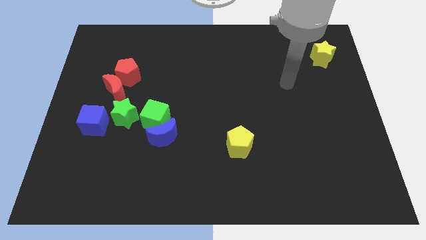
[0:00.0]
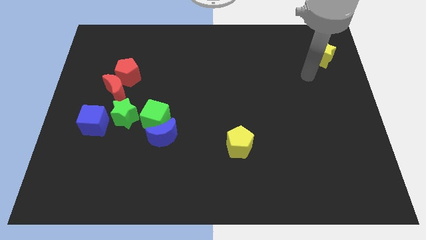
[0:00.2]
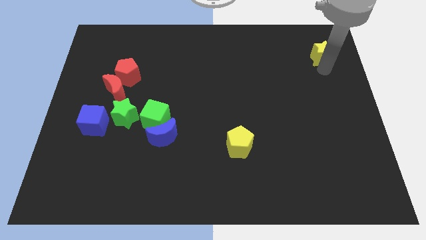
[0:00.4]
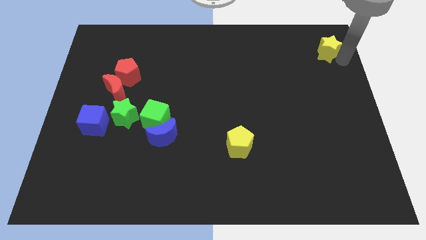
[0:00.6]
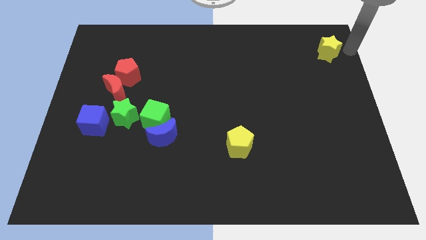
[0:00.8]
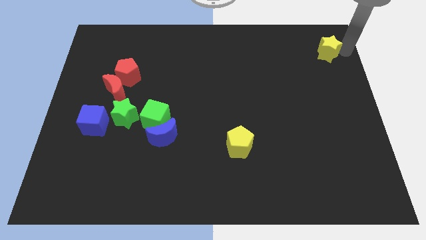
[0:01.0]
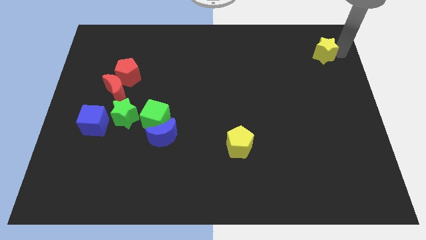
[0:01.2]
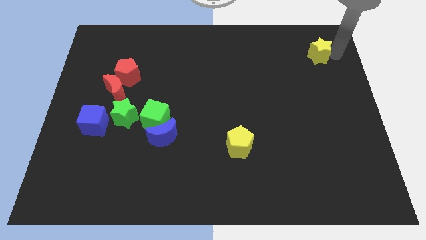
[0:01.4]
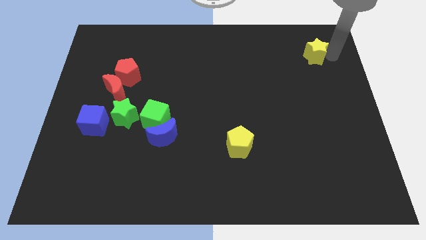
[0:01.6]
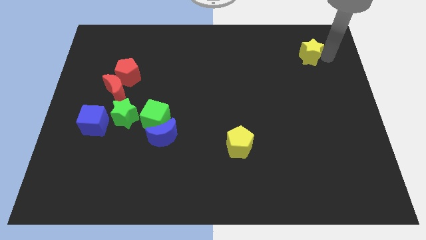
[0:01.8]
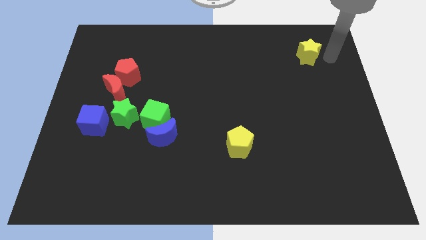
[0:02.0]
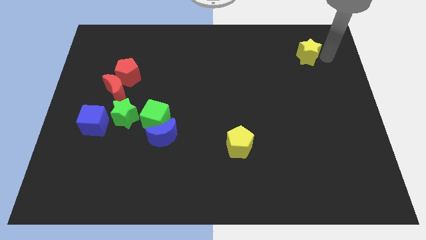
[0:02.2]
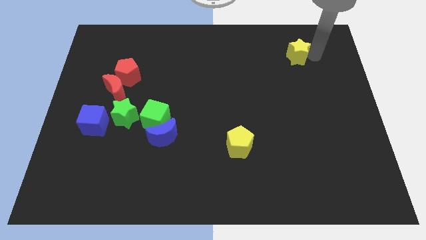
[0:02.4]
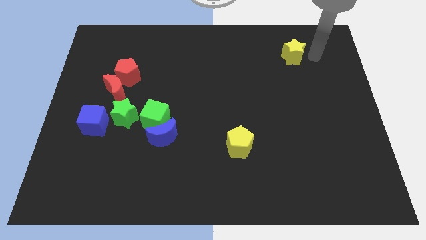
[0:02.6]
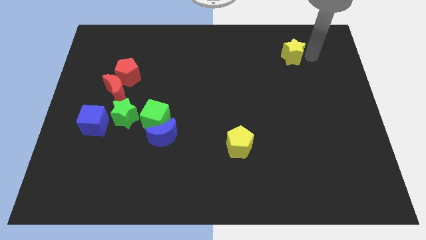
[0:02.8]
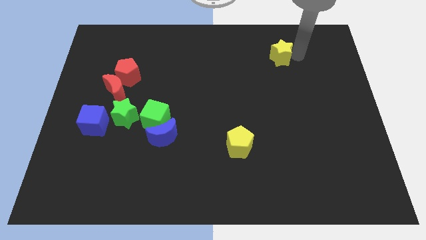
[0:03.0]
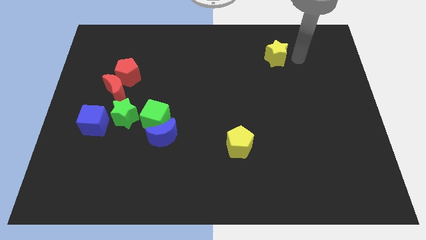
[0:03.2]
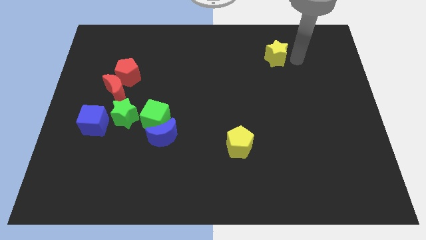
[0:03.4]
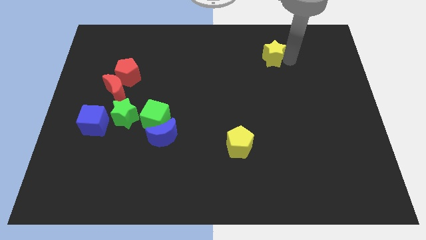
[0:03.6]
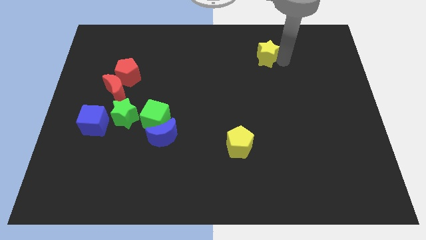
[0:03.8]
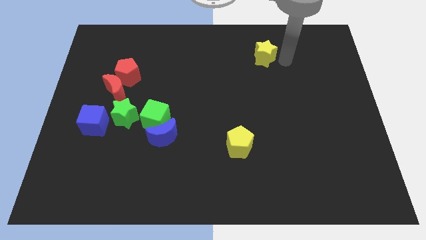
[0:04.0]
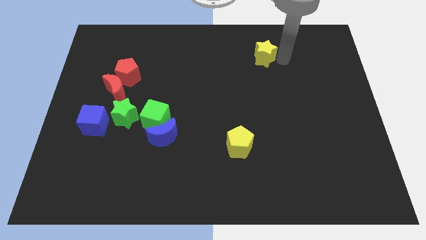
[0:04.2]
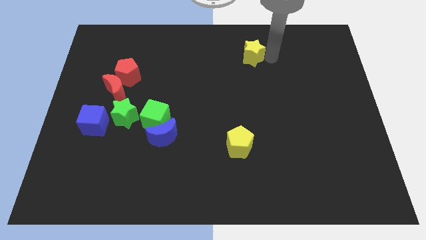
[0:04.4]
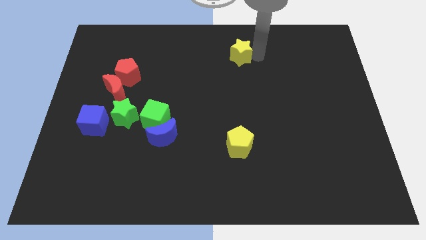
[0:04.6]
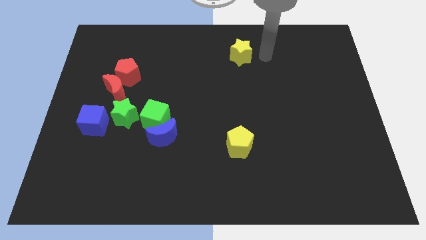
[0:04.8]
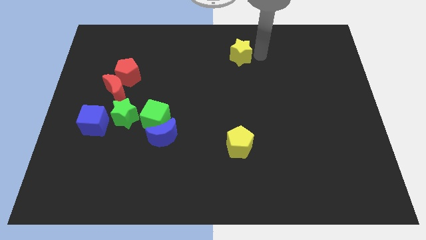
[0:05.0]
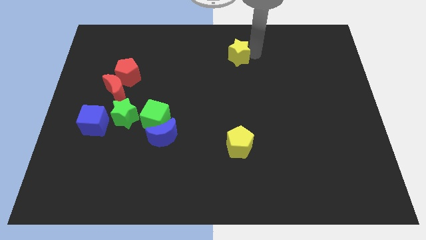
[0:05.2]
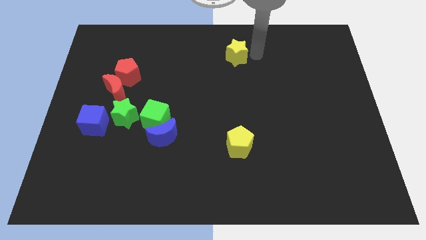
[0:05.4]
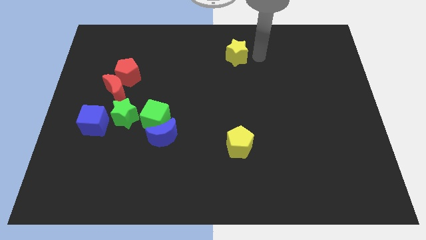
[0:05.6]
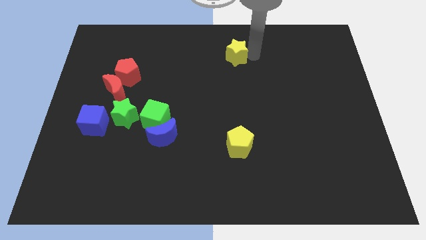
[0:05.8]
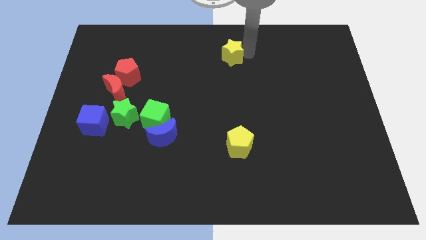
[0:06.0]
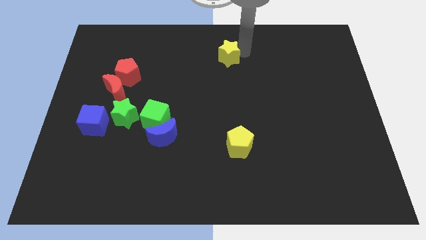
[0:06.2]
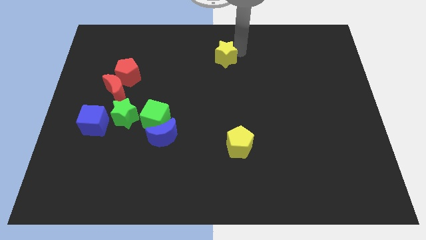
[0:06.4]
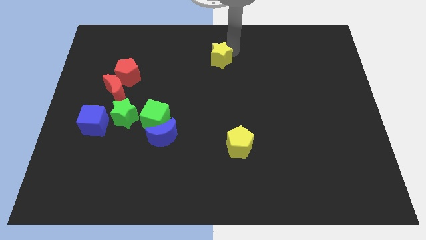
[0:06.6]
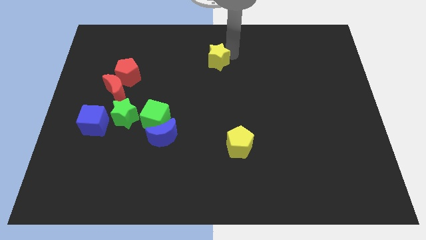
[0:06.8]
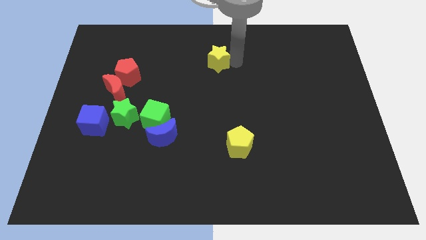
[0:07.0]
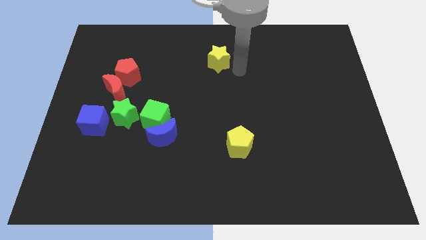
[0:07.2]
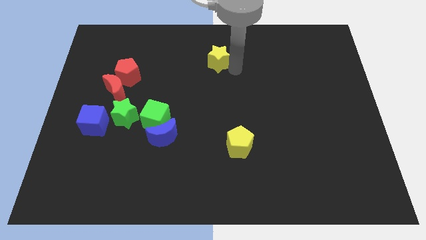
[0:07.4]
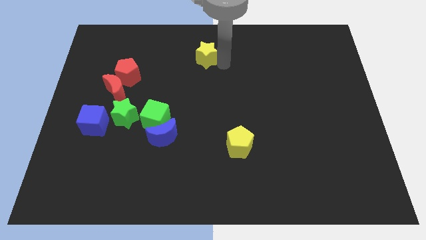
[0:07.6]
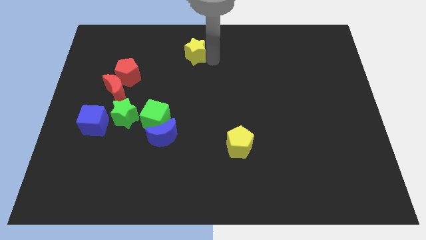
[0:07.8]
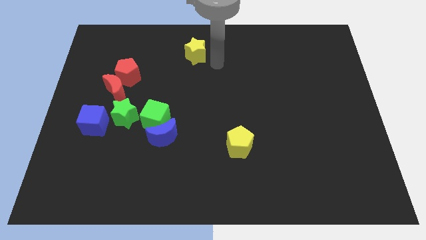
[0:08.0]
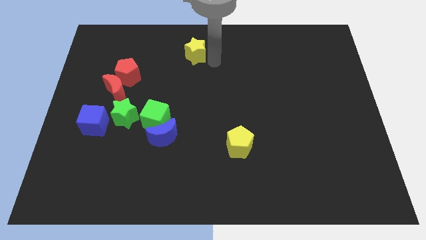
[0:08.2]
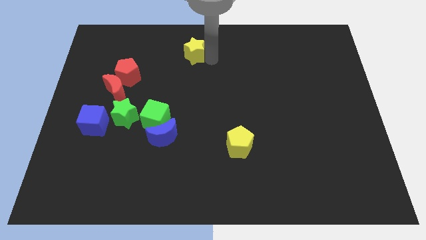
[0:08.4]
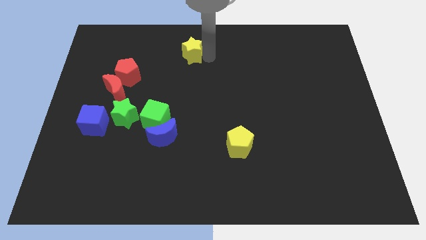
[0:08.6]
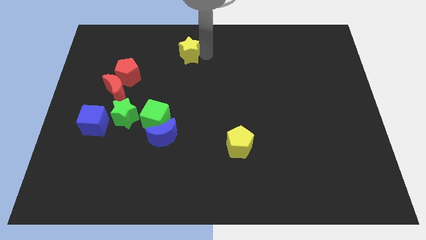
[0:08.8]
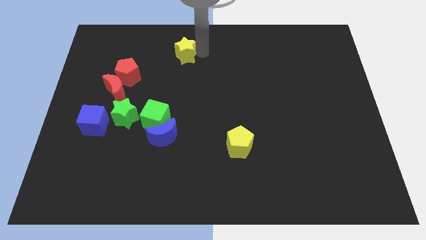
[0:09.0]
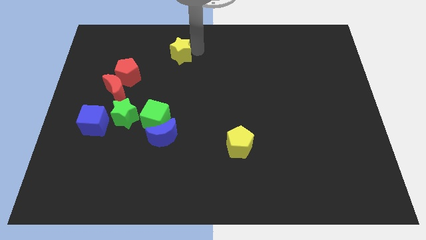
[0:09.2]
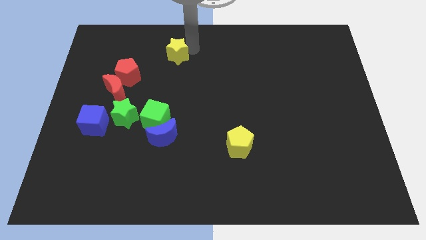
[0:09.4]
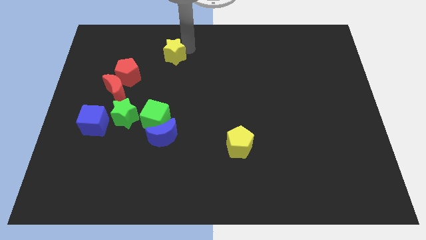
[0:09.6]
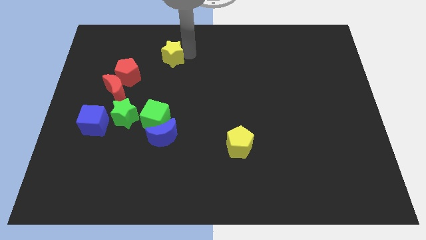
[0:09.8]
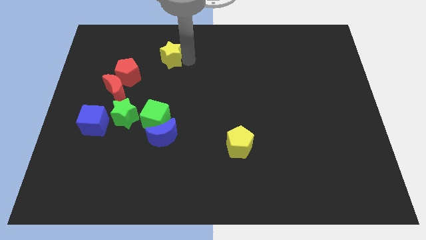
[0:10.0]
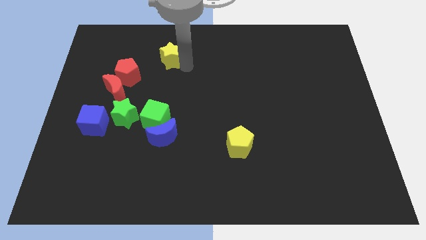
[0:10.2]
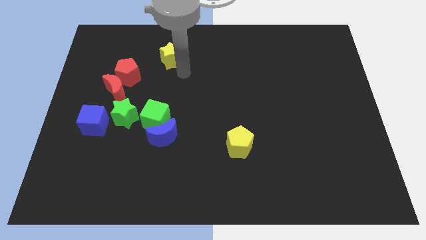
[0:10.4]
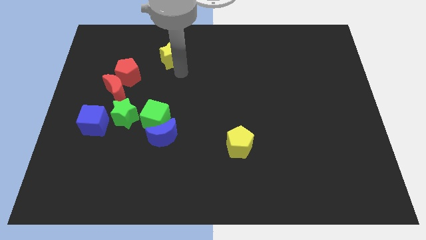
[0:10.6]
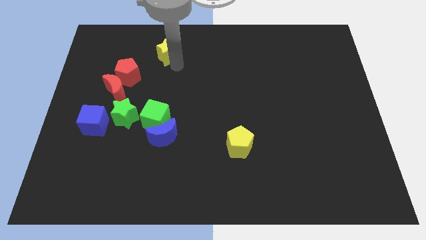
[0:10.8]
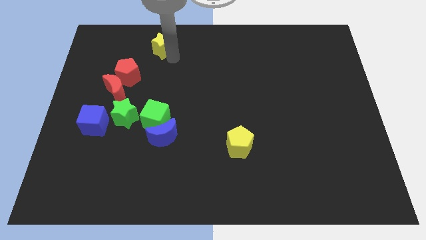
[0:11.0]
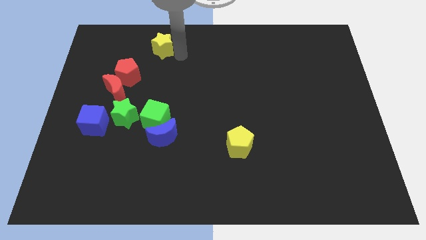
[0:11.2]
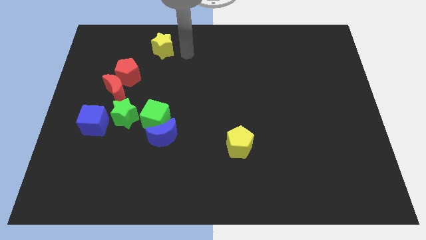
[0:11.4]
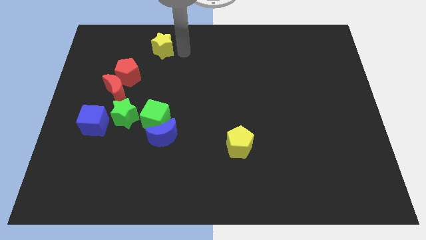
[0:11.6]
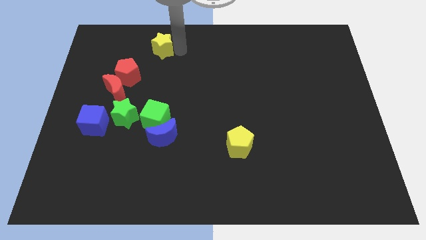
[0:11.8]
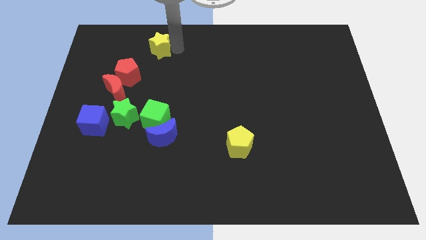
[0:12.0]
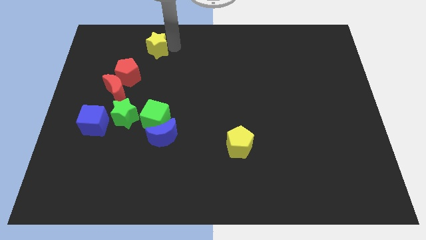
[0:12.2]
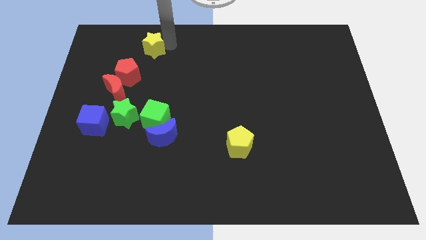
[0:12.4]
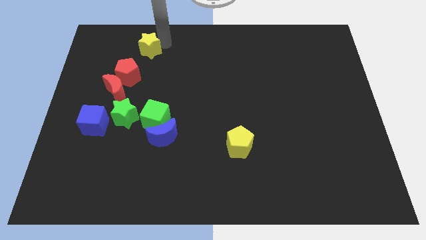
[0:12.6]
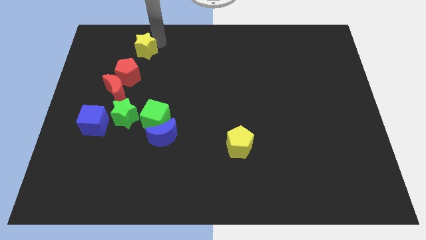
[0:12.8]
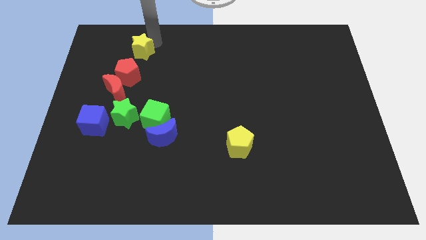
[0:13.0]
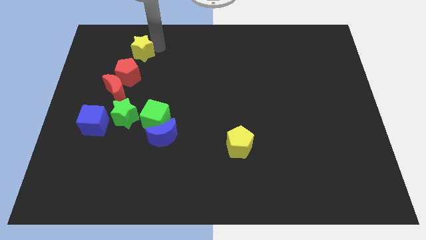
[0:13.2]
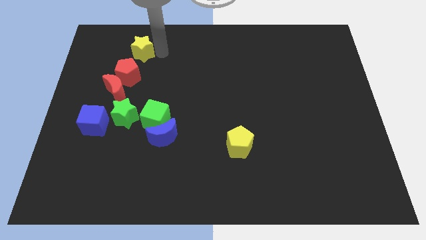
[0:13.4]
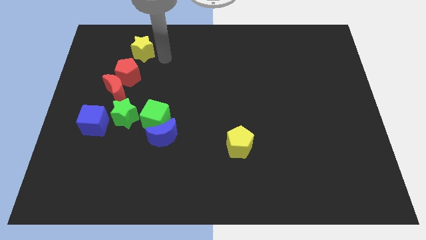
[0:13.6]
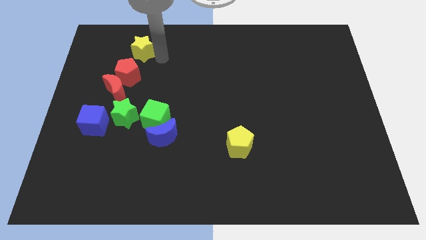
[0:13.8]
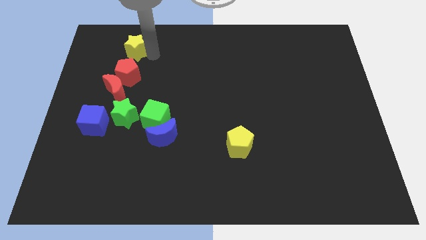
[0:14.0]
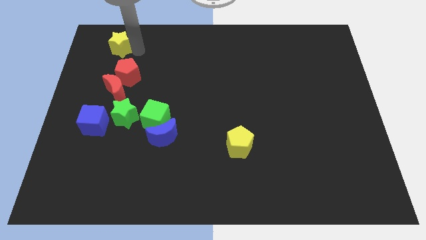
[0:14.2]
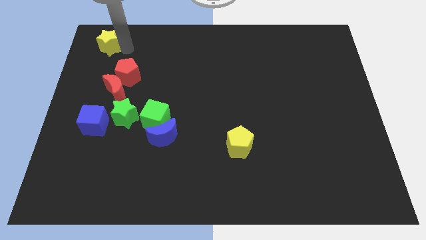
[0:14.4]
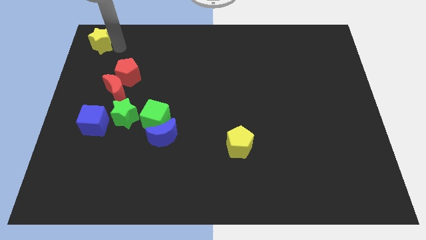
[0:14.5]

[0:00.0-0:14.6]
slide the yellow star to the top left corner

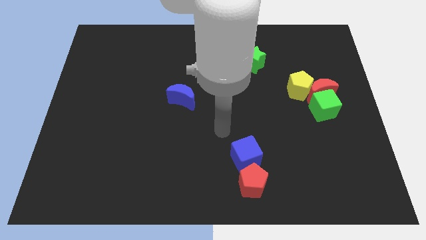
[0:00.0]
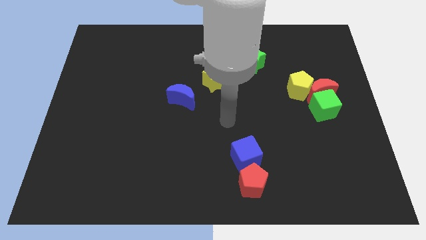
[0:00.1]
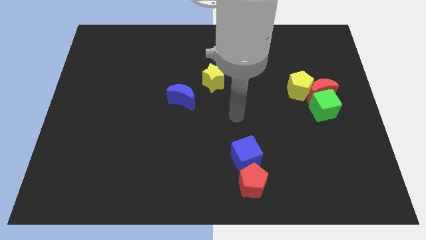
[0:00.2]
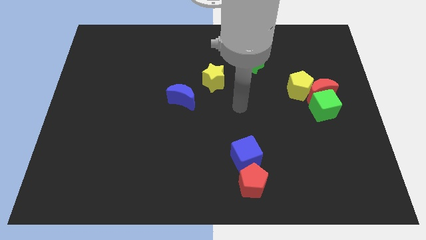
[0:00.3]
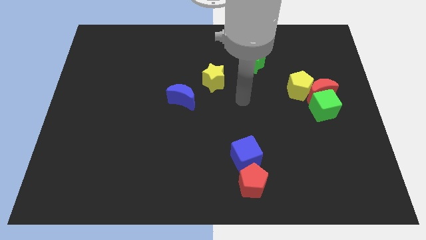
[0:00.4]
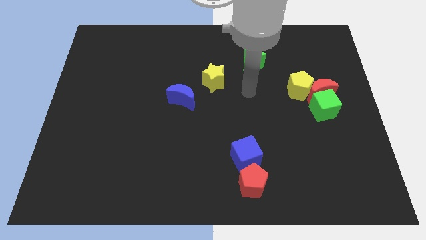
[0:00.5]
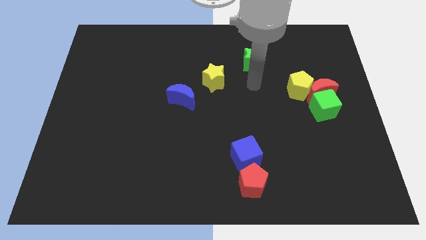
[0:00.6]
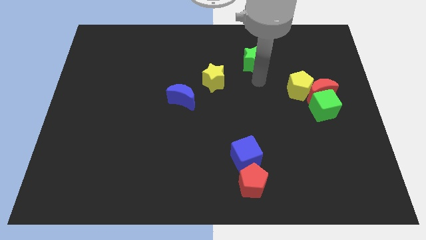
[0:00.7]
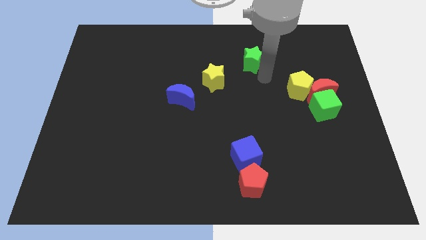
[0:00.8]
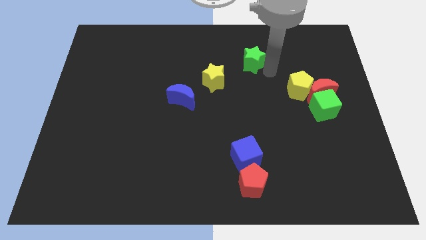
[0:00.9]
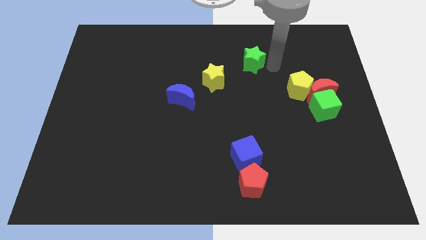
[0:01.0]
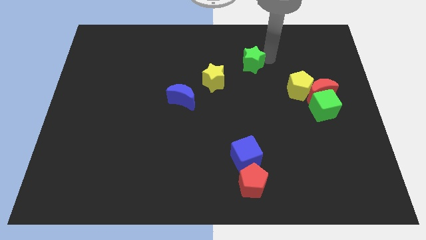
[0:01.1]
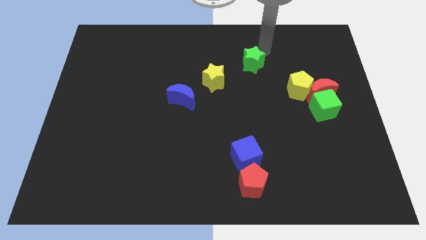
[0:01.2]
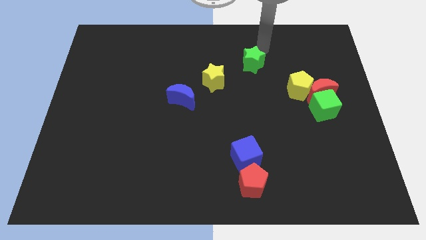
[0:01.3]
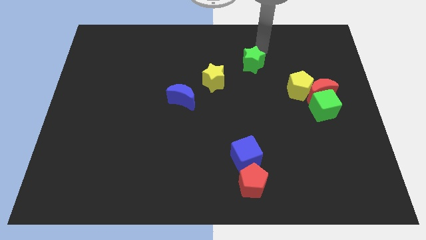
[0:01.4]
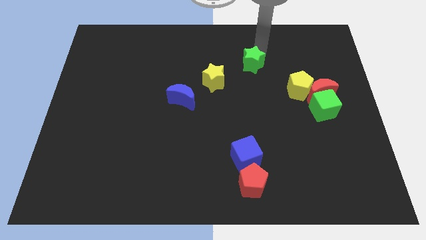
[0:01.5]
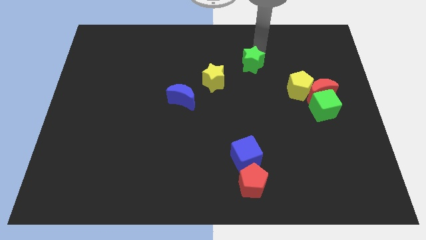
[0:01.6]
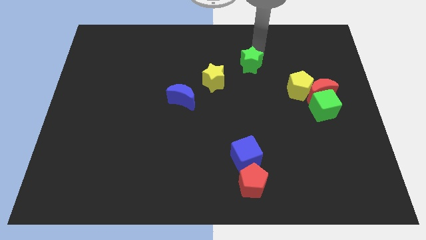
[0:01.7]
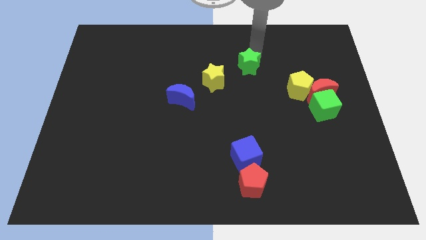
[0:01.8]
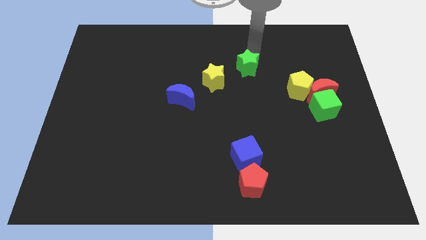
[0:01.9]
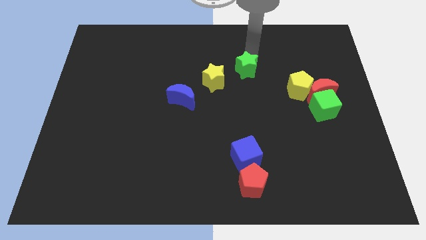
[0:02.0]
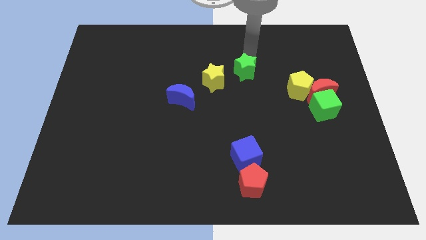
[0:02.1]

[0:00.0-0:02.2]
slide the green star to the center of the board
